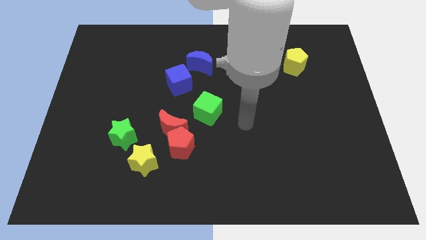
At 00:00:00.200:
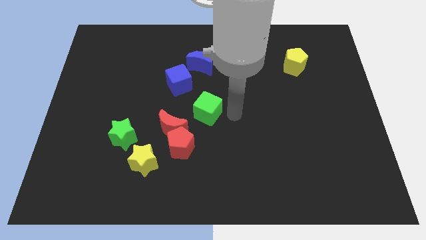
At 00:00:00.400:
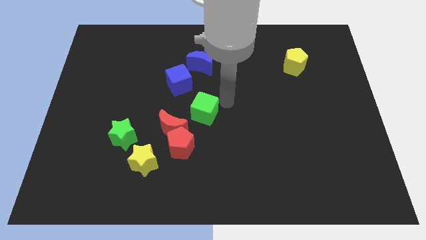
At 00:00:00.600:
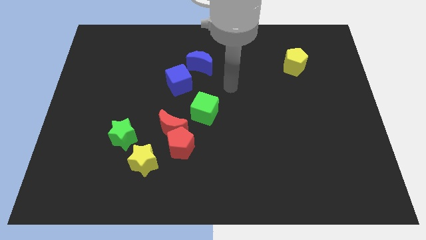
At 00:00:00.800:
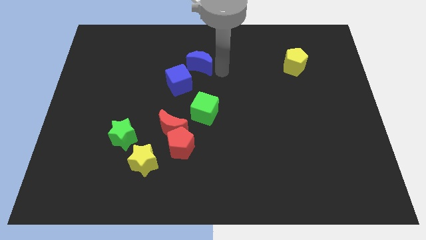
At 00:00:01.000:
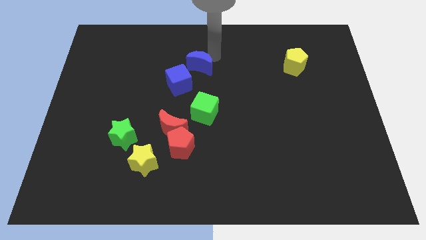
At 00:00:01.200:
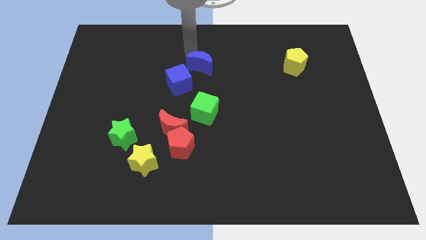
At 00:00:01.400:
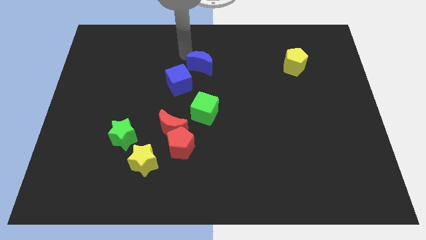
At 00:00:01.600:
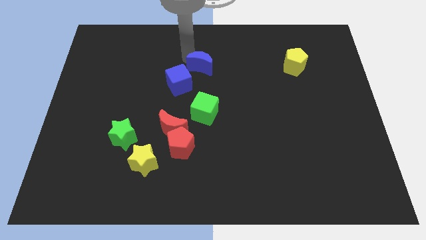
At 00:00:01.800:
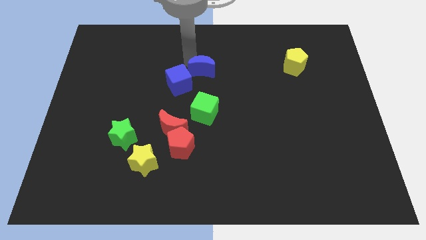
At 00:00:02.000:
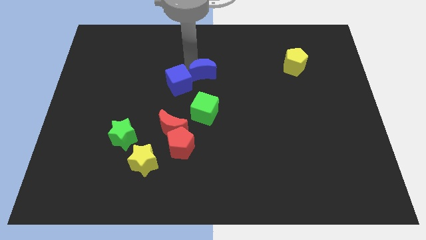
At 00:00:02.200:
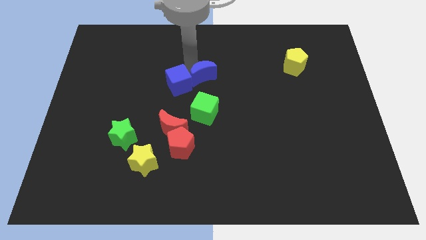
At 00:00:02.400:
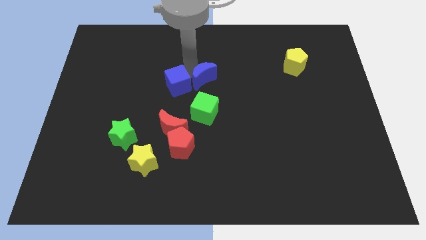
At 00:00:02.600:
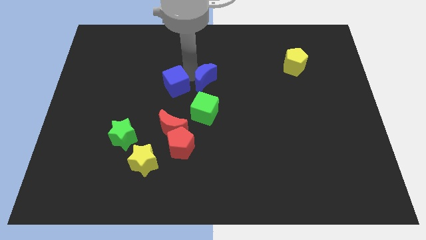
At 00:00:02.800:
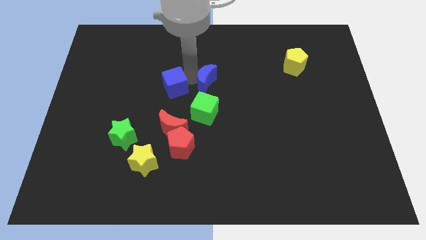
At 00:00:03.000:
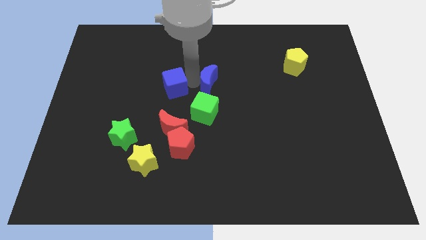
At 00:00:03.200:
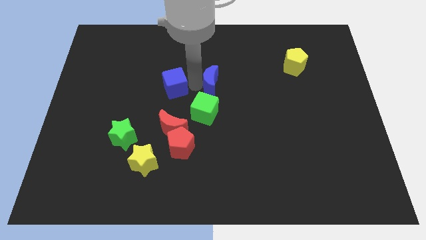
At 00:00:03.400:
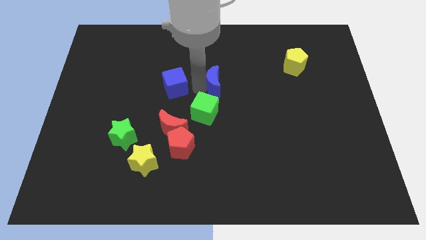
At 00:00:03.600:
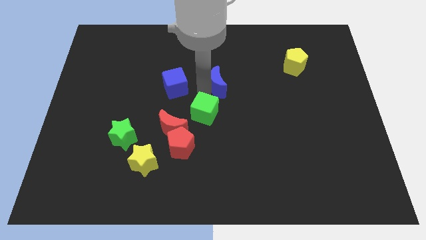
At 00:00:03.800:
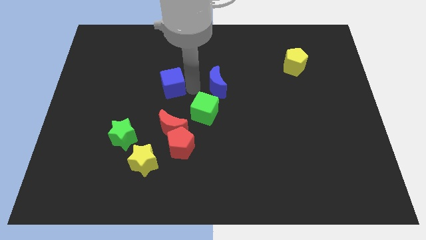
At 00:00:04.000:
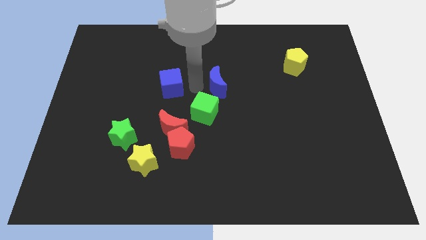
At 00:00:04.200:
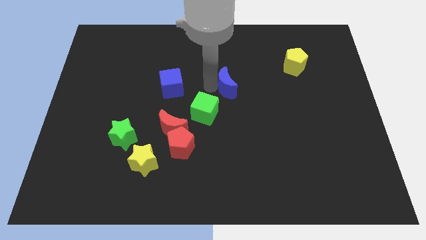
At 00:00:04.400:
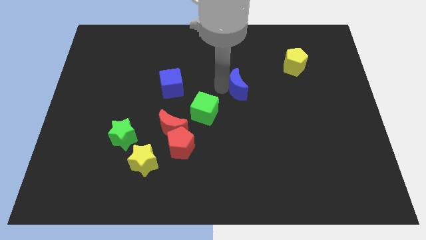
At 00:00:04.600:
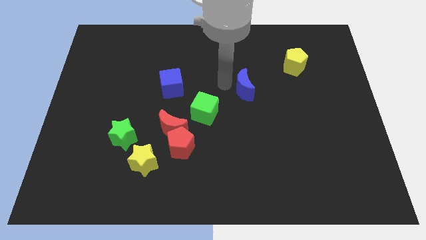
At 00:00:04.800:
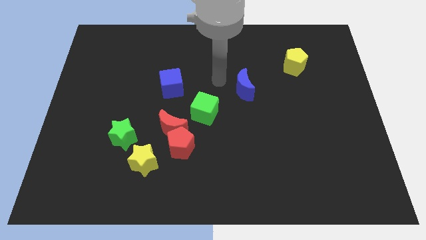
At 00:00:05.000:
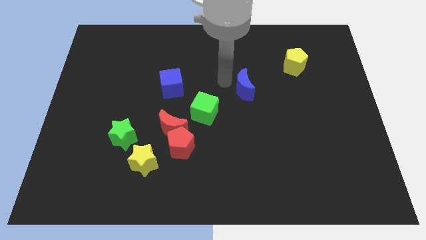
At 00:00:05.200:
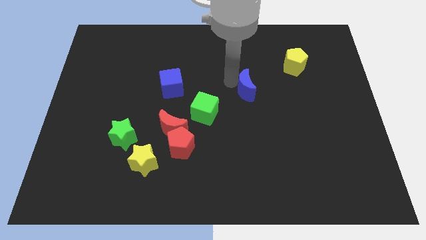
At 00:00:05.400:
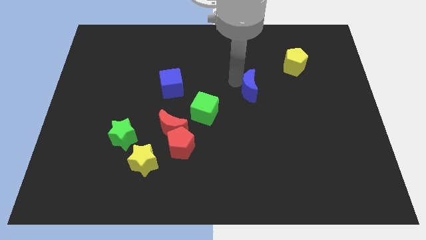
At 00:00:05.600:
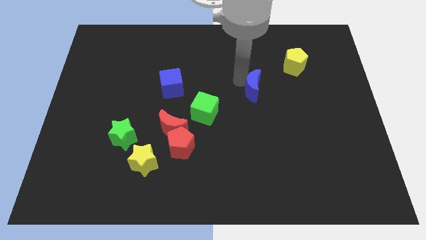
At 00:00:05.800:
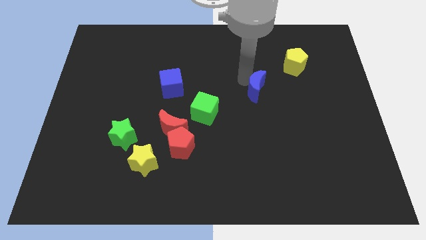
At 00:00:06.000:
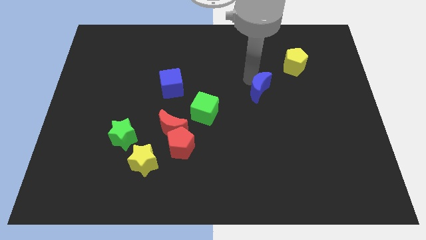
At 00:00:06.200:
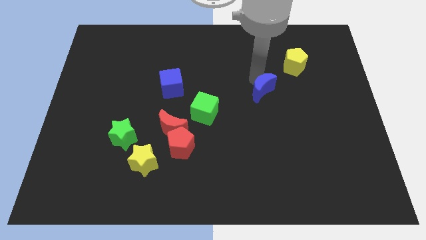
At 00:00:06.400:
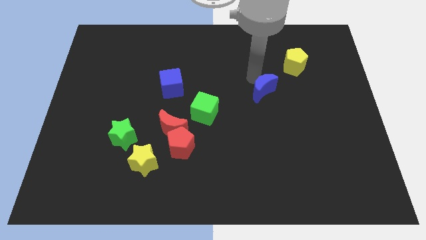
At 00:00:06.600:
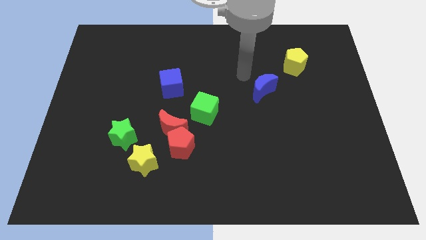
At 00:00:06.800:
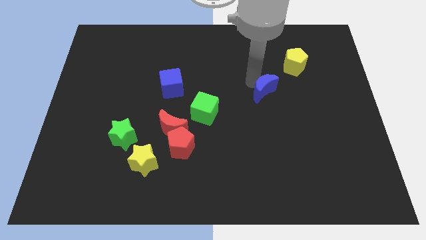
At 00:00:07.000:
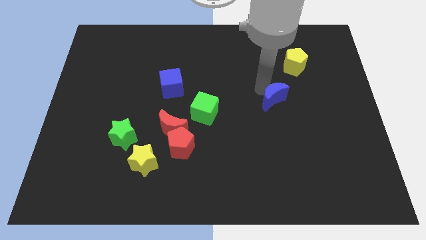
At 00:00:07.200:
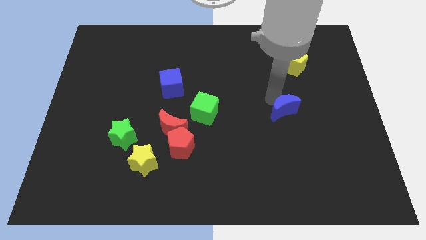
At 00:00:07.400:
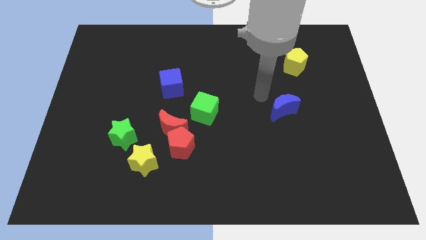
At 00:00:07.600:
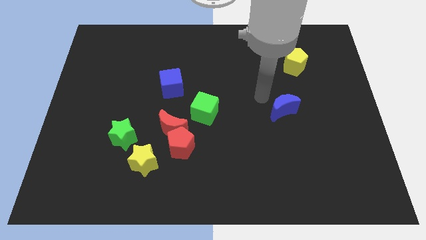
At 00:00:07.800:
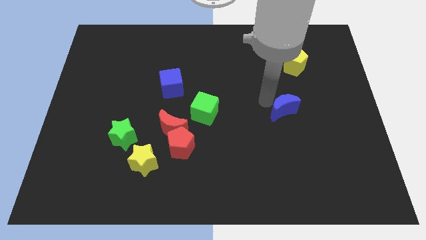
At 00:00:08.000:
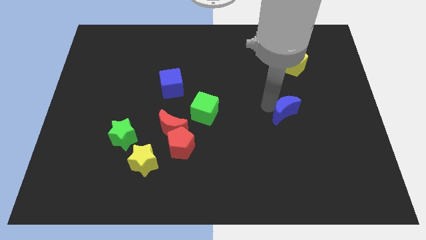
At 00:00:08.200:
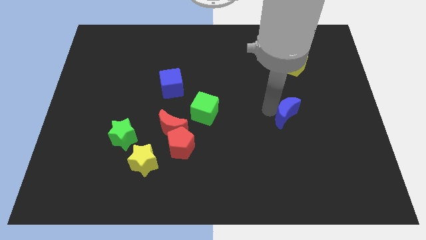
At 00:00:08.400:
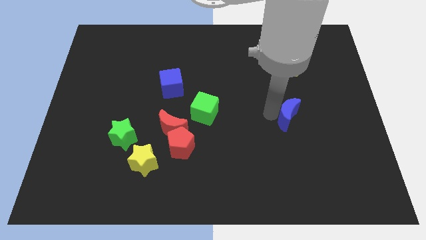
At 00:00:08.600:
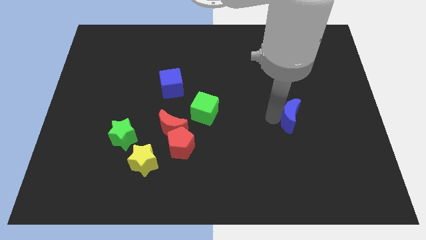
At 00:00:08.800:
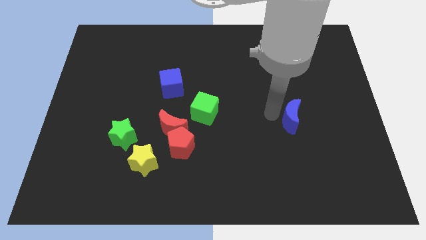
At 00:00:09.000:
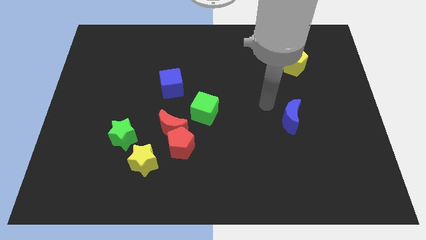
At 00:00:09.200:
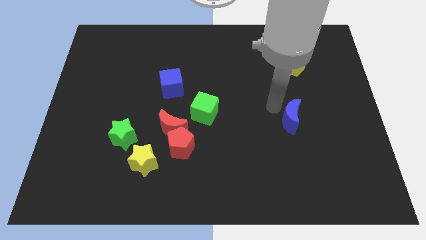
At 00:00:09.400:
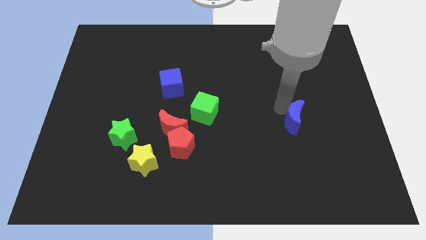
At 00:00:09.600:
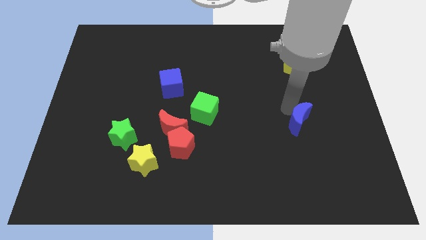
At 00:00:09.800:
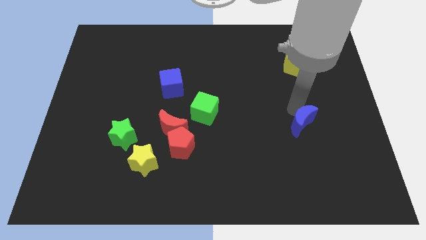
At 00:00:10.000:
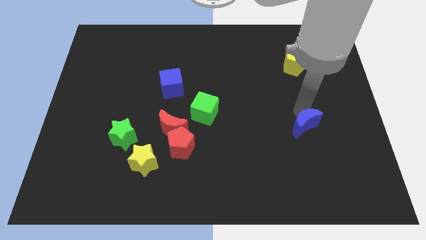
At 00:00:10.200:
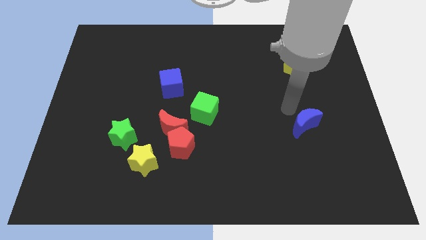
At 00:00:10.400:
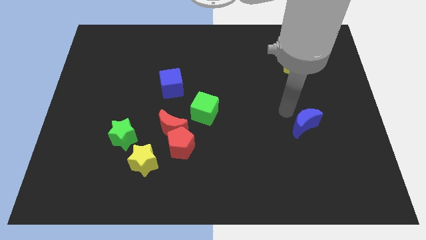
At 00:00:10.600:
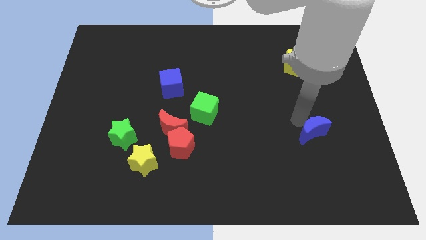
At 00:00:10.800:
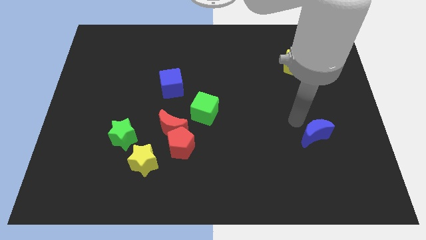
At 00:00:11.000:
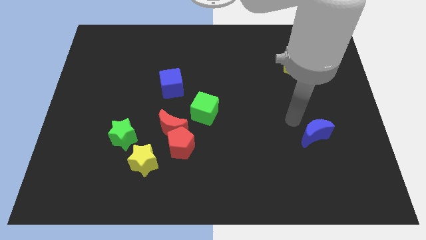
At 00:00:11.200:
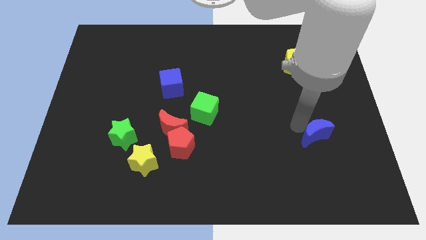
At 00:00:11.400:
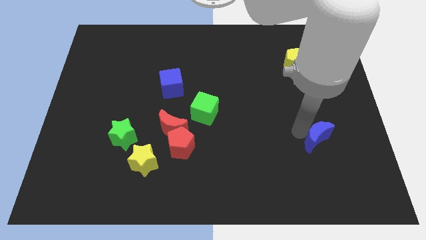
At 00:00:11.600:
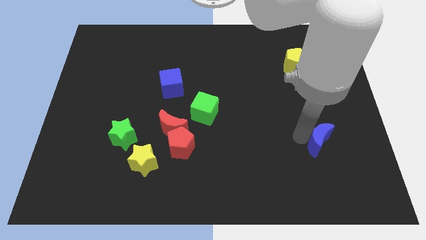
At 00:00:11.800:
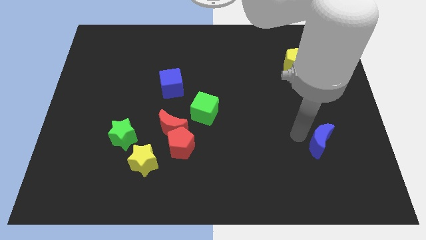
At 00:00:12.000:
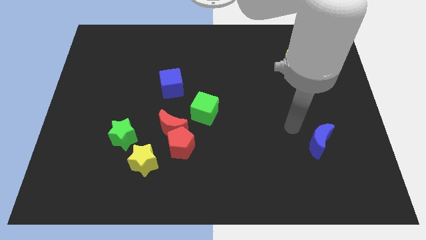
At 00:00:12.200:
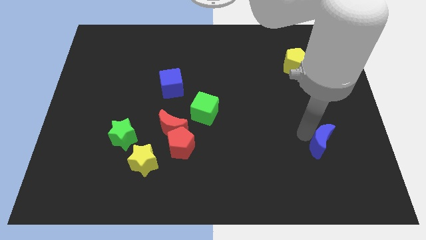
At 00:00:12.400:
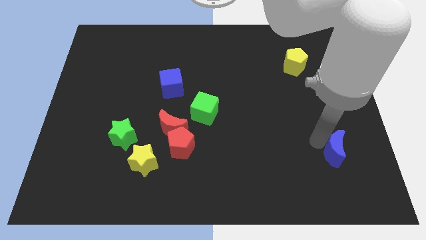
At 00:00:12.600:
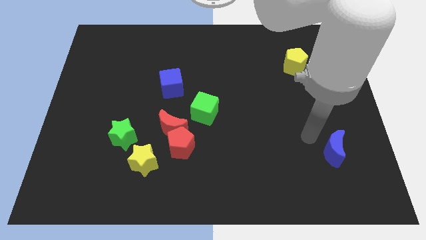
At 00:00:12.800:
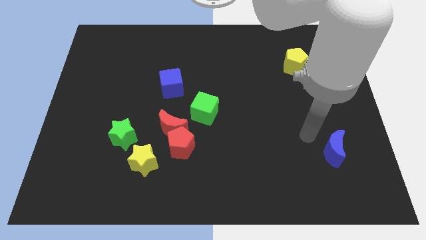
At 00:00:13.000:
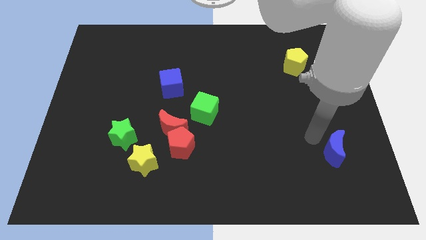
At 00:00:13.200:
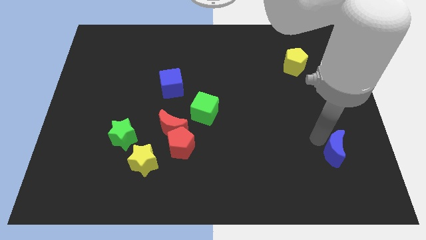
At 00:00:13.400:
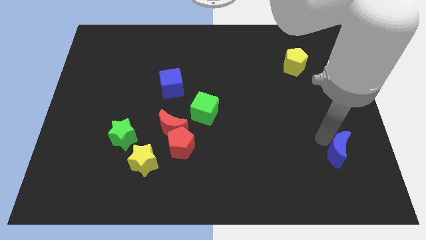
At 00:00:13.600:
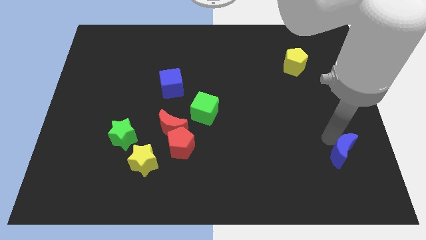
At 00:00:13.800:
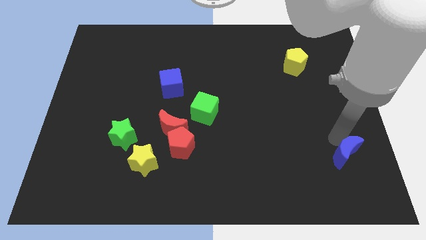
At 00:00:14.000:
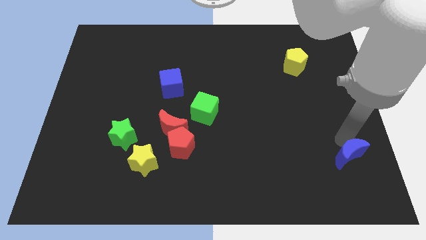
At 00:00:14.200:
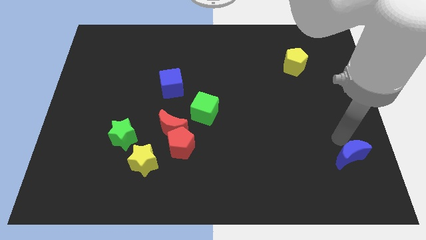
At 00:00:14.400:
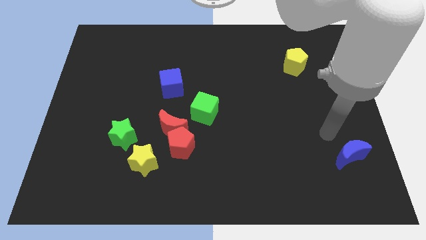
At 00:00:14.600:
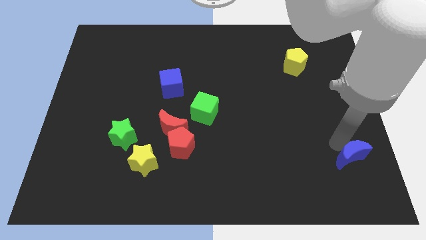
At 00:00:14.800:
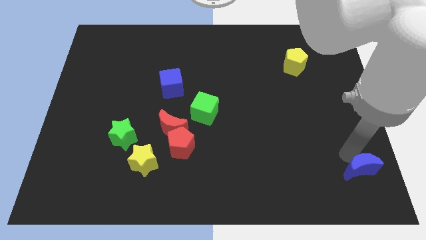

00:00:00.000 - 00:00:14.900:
slide the blue moon to the bottom right corner
